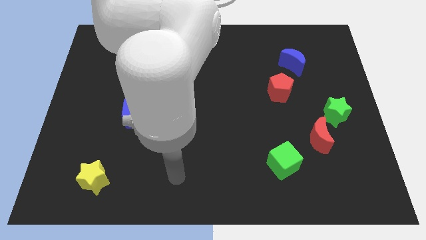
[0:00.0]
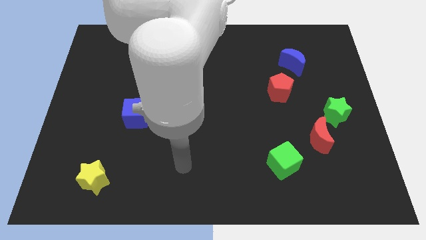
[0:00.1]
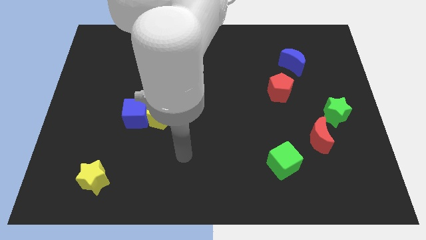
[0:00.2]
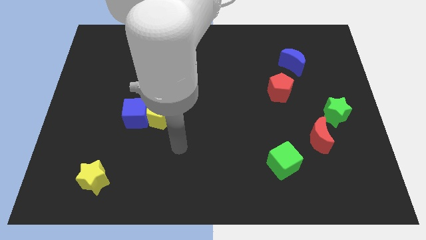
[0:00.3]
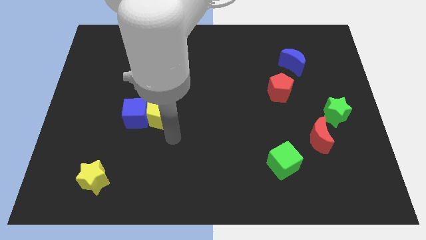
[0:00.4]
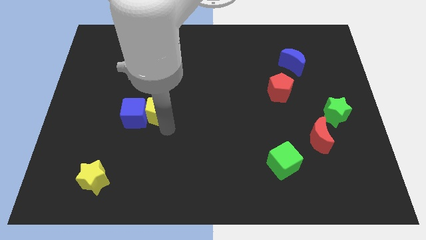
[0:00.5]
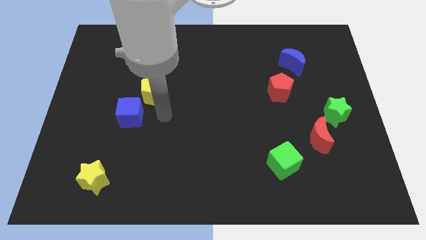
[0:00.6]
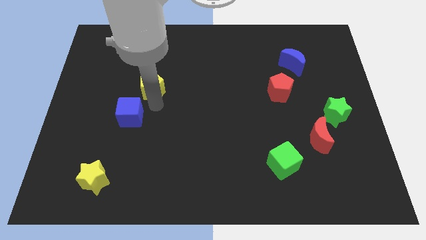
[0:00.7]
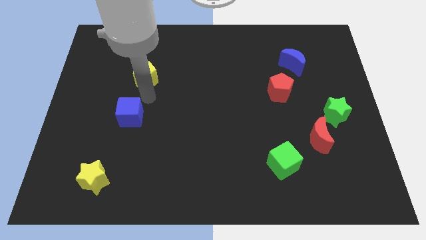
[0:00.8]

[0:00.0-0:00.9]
move the blue cube away from the yellow pentagon

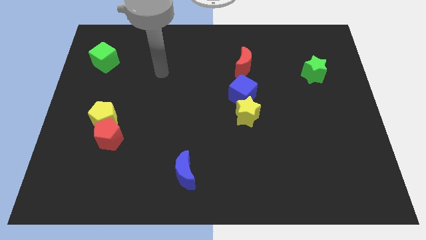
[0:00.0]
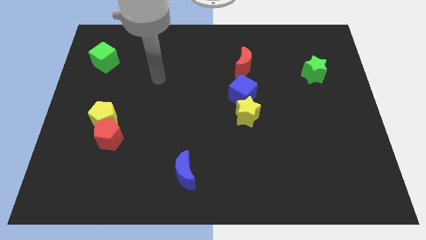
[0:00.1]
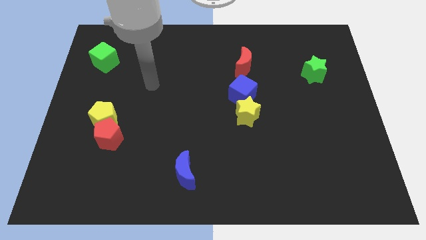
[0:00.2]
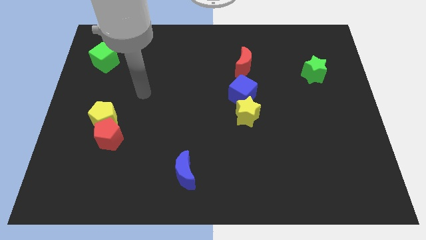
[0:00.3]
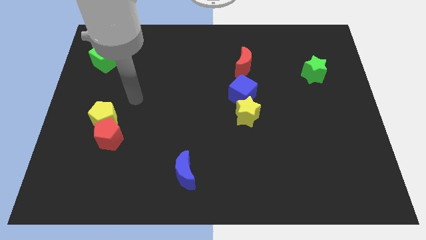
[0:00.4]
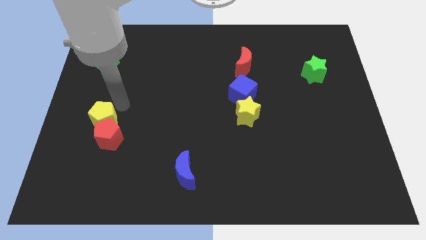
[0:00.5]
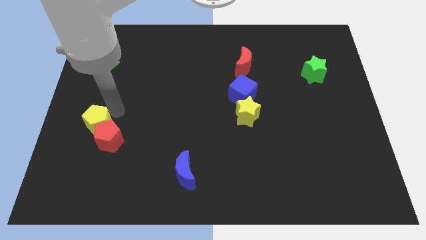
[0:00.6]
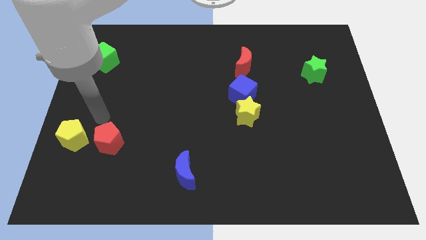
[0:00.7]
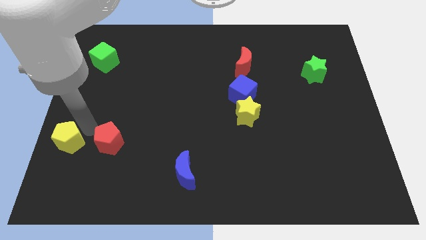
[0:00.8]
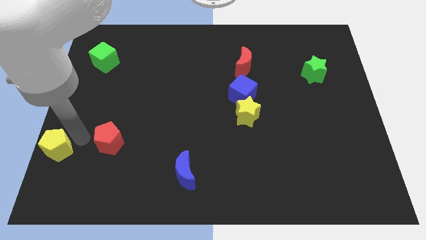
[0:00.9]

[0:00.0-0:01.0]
move the red pentagon away from the yellow pentagon

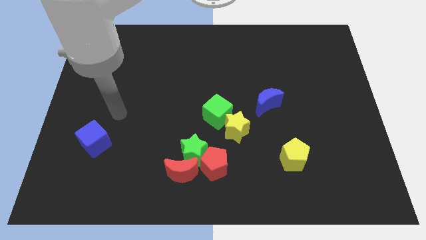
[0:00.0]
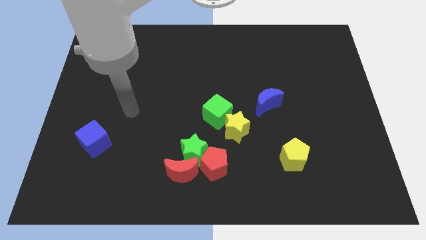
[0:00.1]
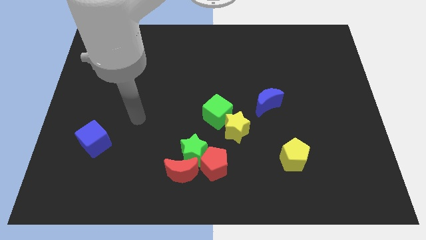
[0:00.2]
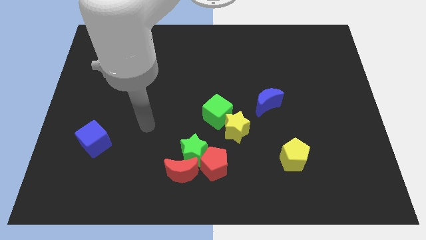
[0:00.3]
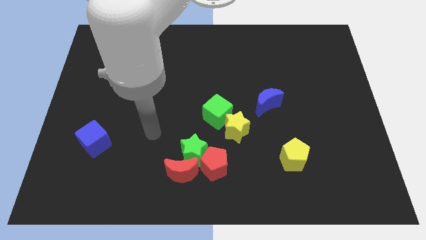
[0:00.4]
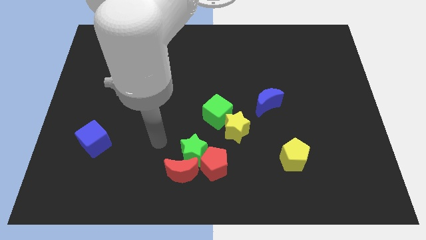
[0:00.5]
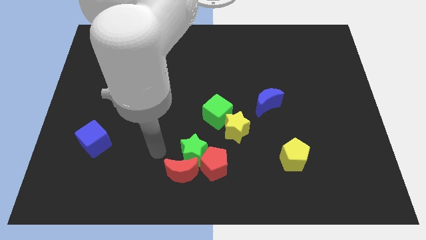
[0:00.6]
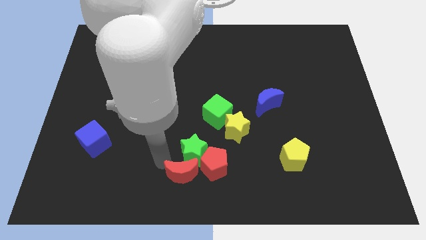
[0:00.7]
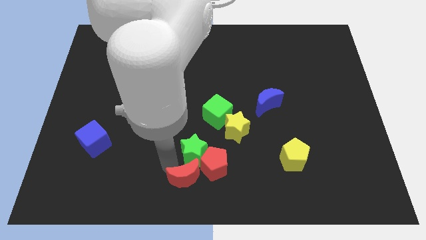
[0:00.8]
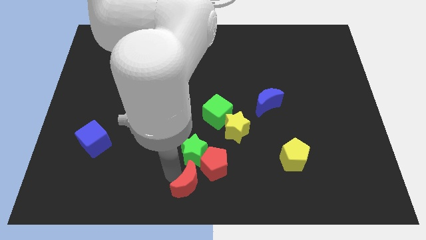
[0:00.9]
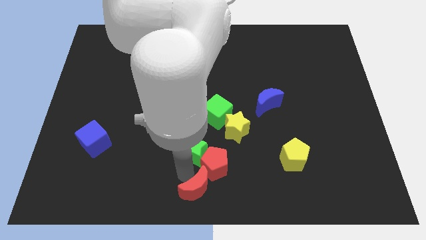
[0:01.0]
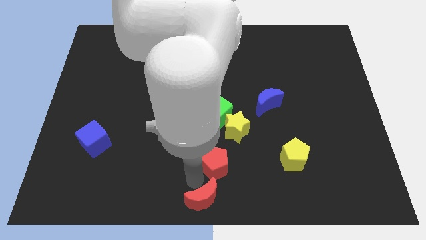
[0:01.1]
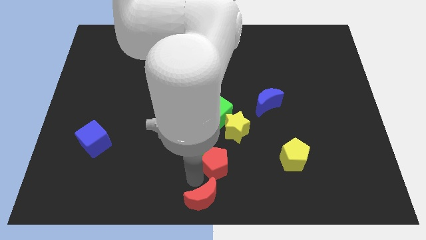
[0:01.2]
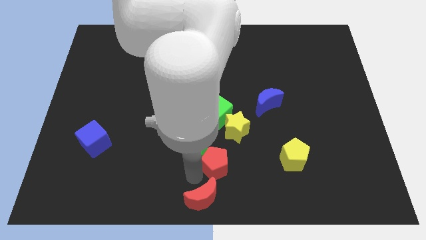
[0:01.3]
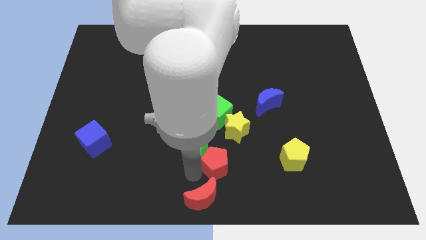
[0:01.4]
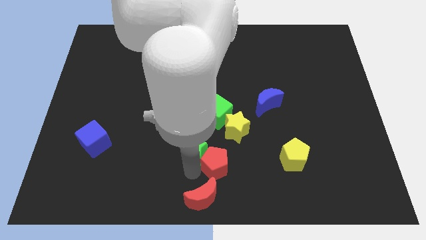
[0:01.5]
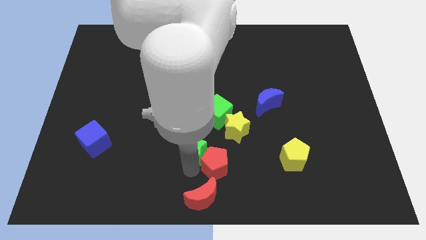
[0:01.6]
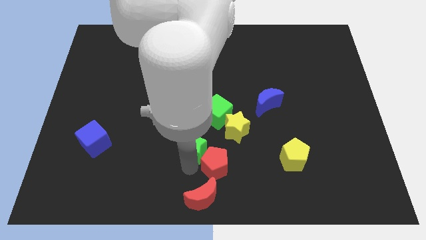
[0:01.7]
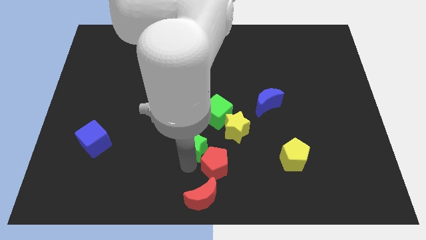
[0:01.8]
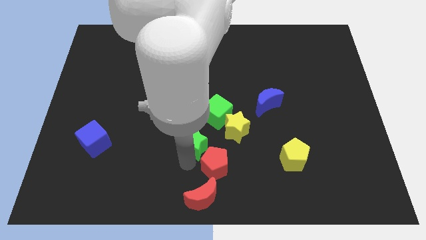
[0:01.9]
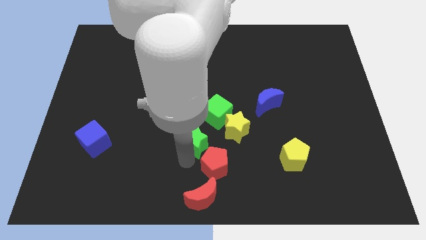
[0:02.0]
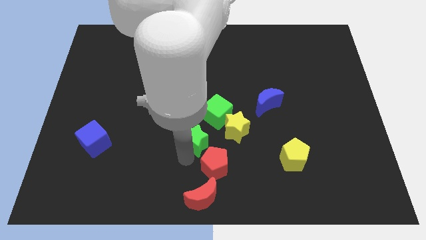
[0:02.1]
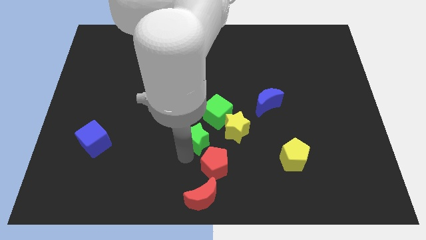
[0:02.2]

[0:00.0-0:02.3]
separate the green star from the red moon and red pentagon

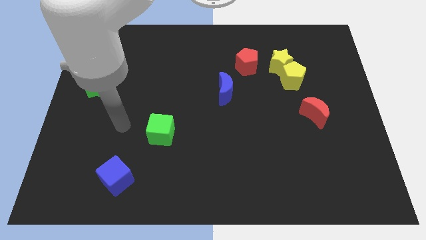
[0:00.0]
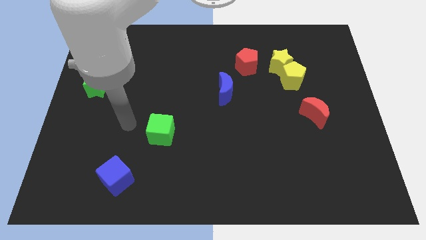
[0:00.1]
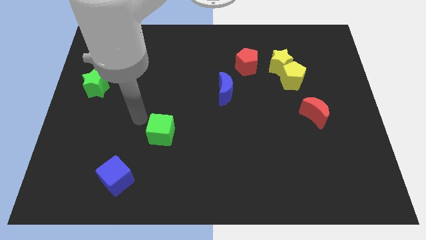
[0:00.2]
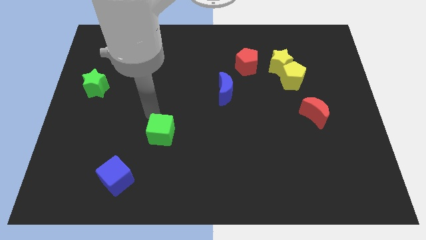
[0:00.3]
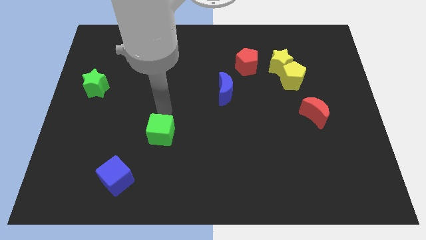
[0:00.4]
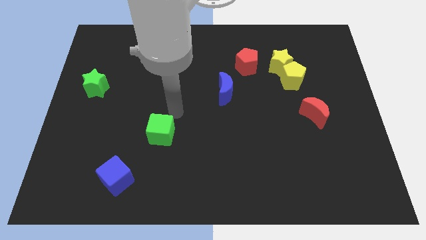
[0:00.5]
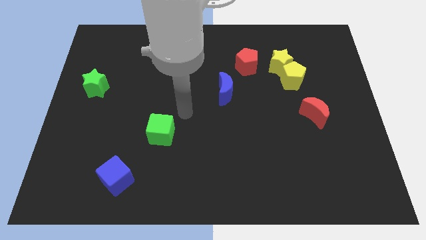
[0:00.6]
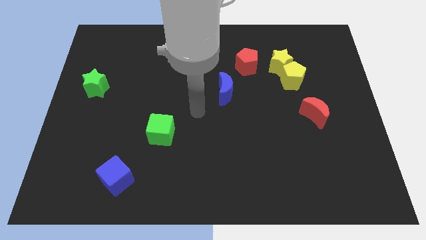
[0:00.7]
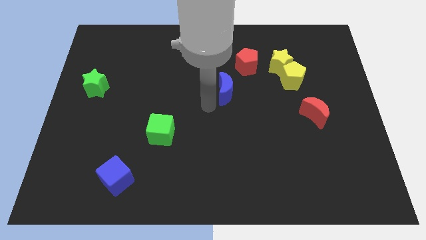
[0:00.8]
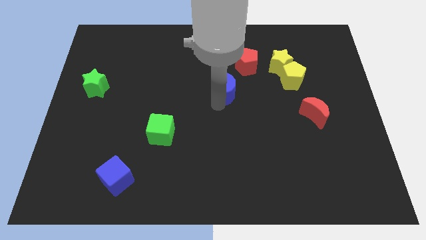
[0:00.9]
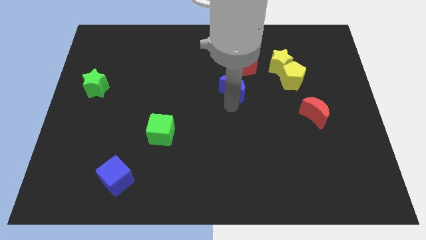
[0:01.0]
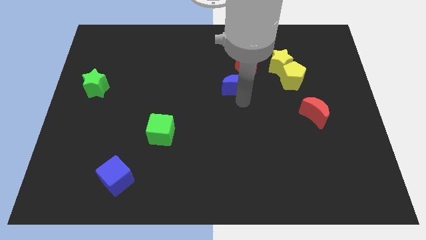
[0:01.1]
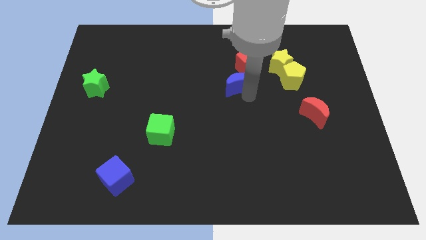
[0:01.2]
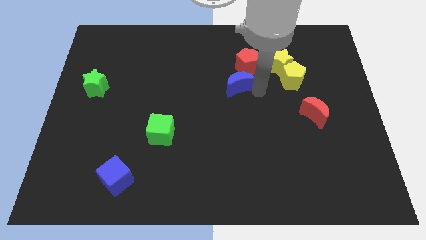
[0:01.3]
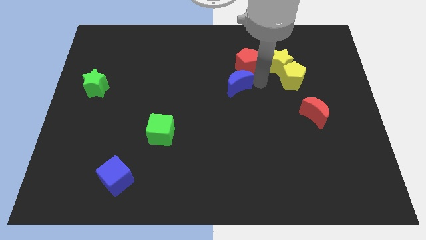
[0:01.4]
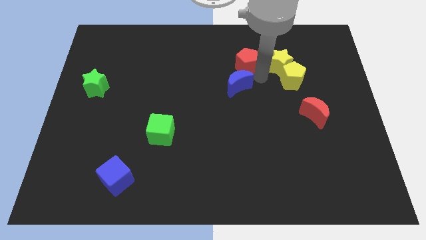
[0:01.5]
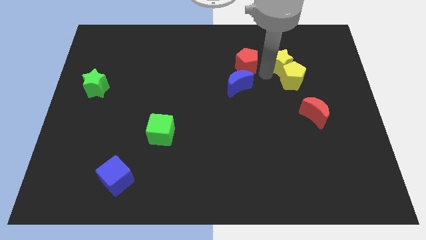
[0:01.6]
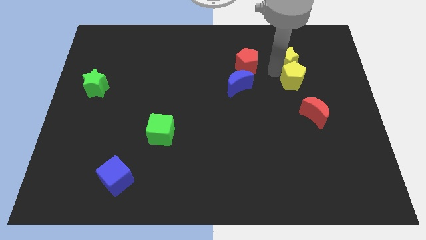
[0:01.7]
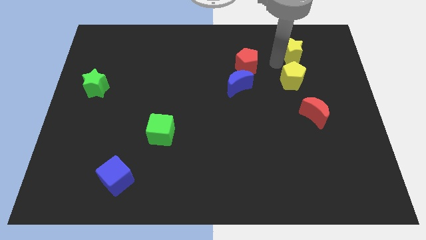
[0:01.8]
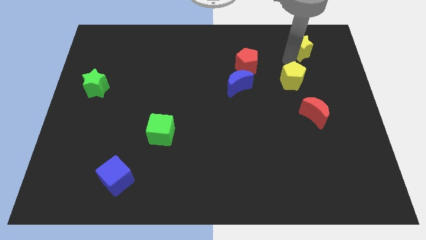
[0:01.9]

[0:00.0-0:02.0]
move the yellow pentagon away from the yellow star

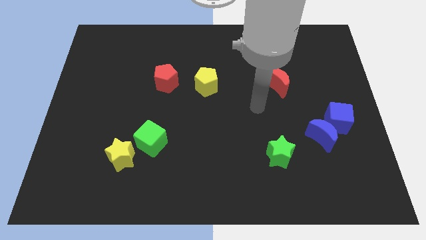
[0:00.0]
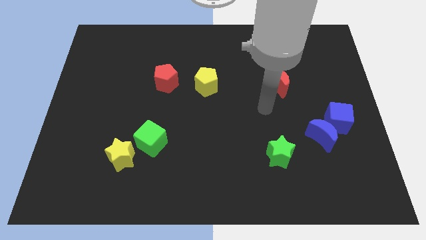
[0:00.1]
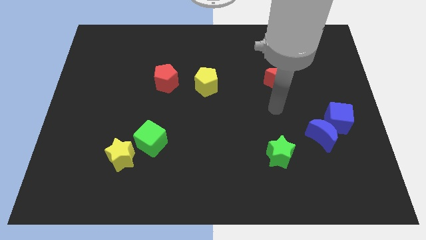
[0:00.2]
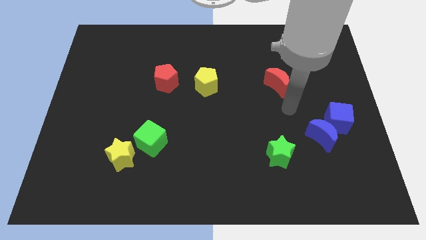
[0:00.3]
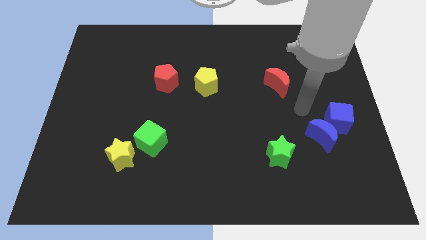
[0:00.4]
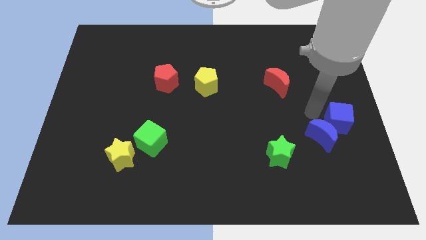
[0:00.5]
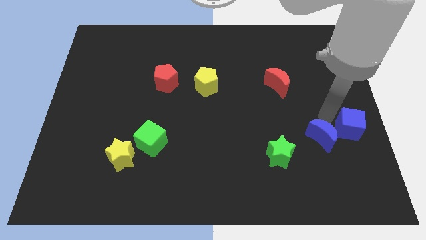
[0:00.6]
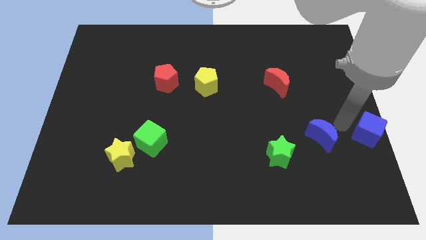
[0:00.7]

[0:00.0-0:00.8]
pull the blue moon apart from the blue cube

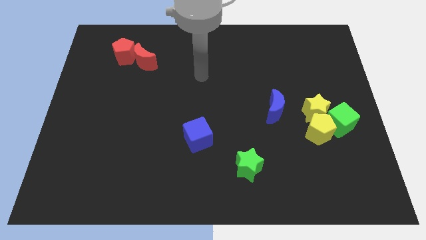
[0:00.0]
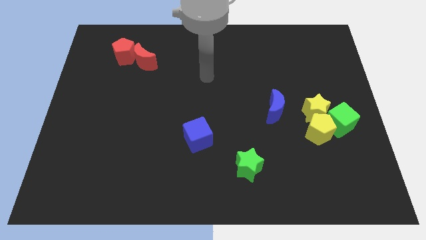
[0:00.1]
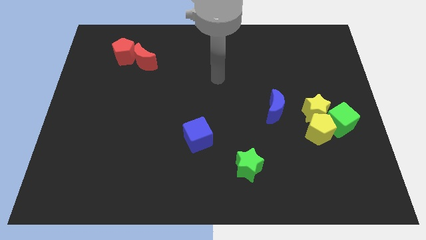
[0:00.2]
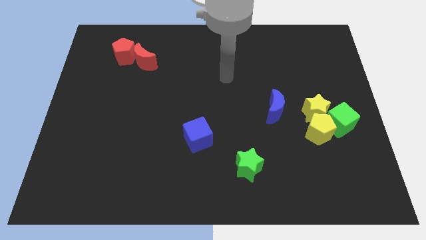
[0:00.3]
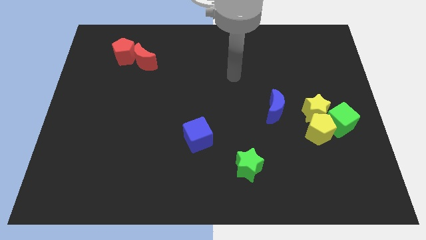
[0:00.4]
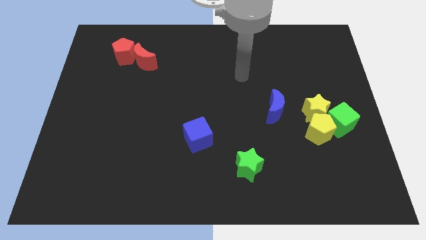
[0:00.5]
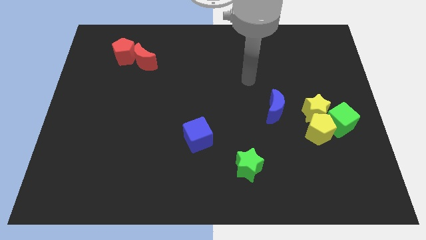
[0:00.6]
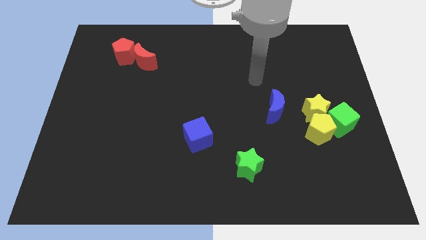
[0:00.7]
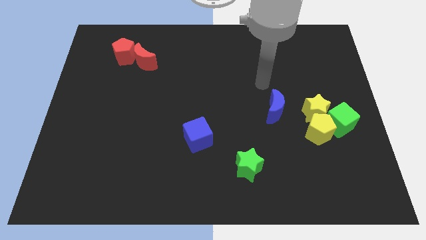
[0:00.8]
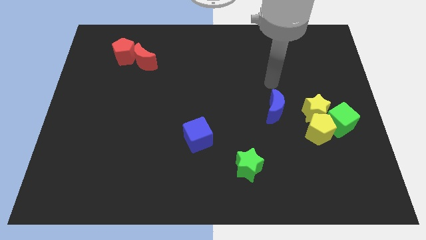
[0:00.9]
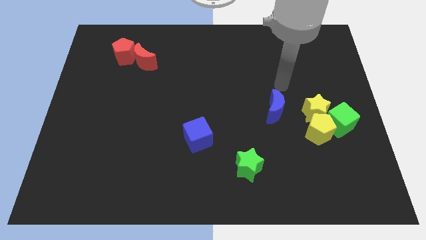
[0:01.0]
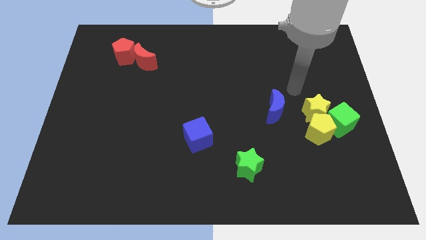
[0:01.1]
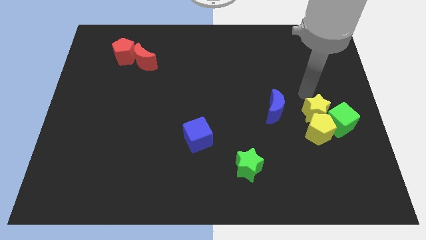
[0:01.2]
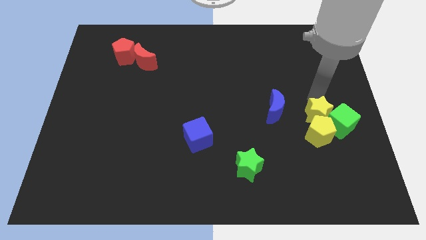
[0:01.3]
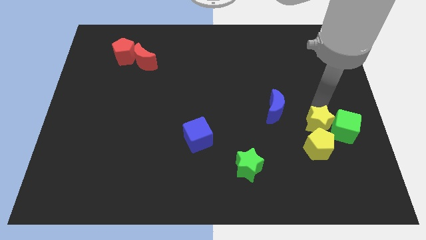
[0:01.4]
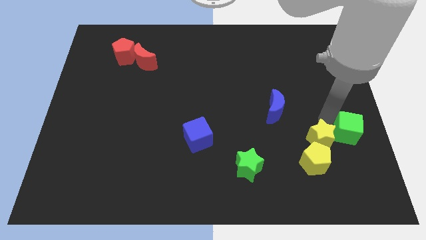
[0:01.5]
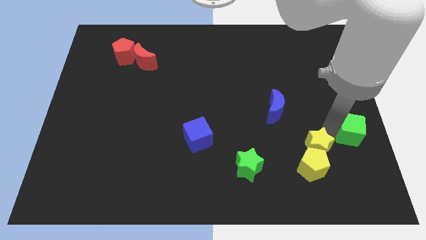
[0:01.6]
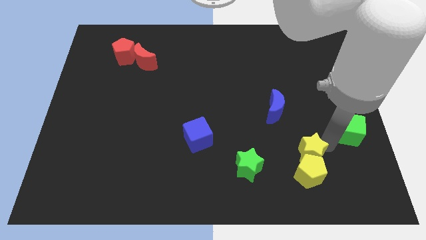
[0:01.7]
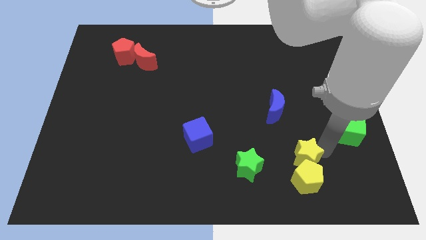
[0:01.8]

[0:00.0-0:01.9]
move the yellow pentagon away from the yellow star and green cube

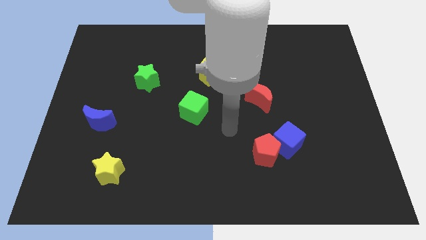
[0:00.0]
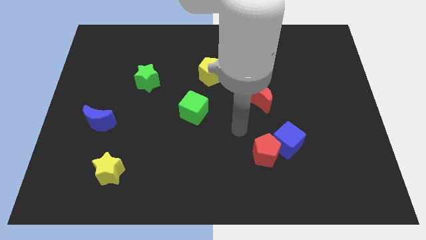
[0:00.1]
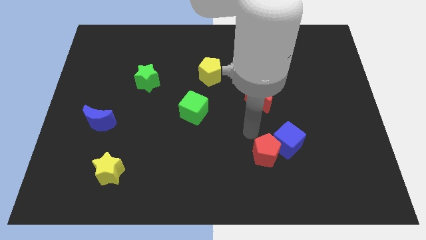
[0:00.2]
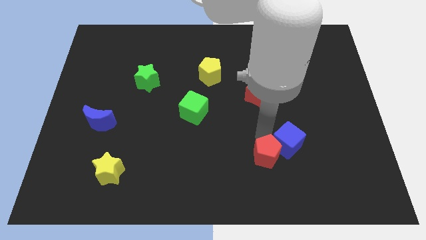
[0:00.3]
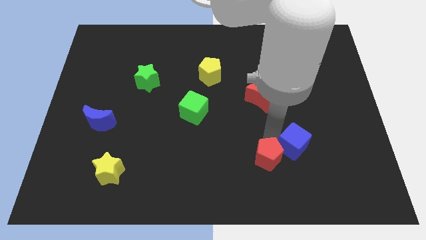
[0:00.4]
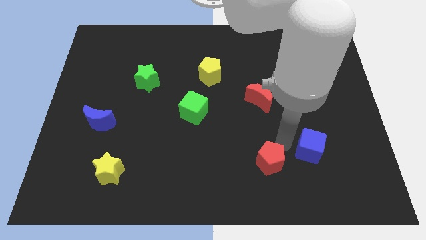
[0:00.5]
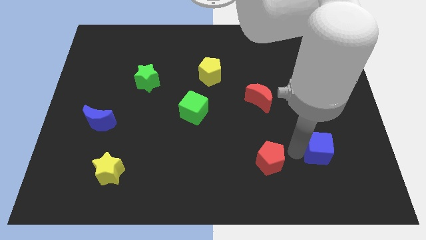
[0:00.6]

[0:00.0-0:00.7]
pull the red pentagon apart from the blue cube
